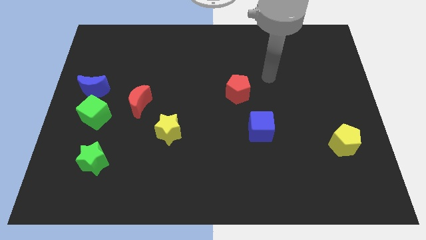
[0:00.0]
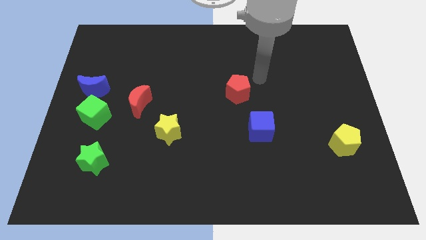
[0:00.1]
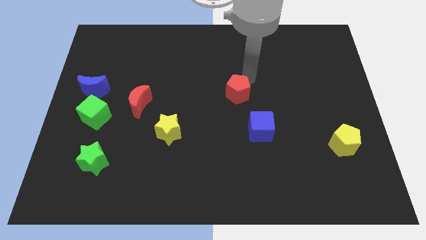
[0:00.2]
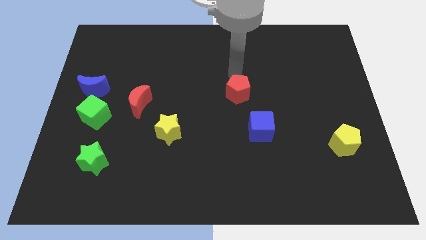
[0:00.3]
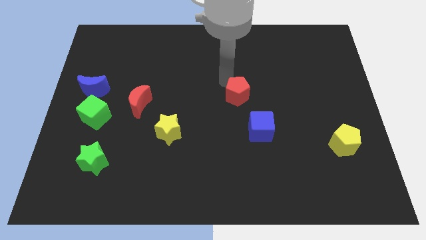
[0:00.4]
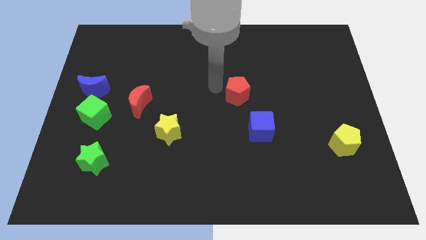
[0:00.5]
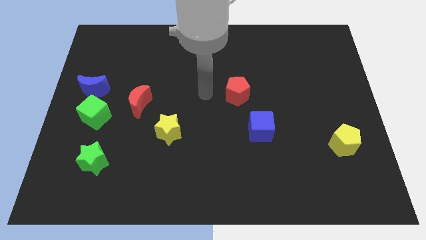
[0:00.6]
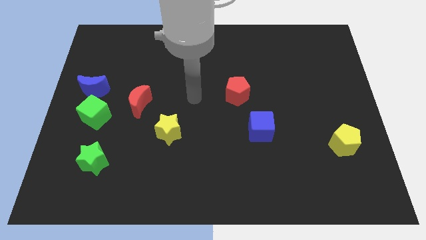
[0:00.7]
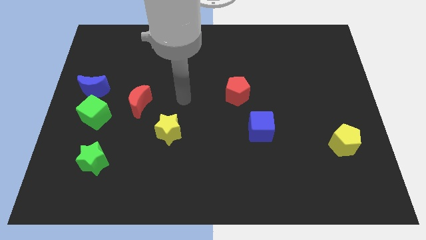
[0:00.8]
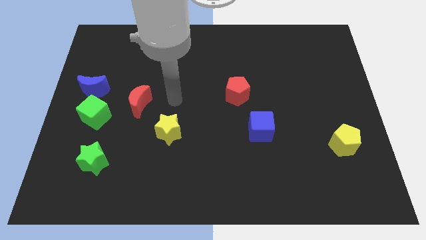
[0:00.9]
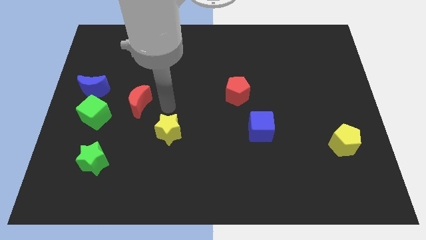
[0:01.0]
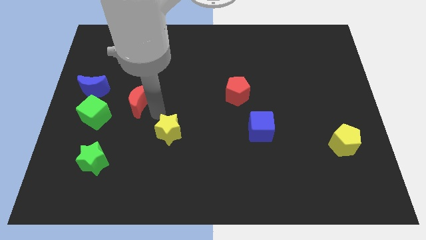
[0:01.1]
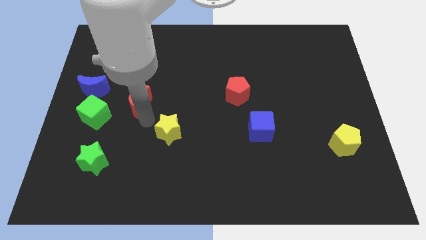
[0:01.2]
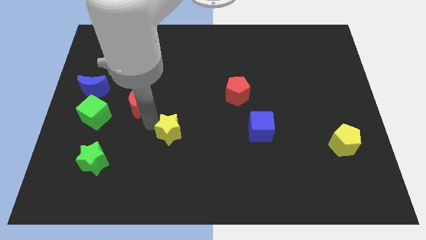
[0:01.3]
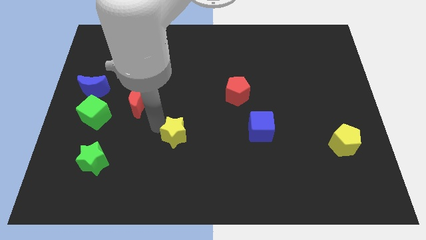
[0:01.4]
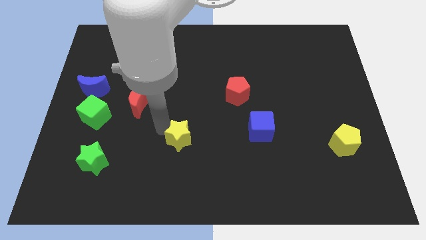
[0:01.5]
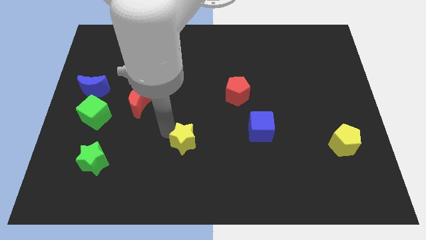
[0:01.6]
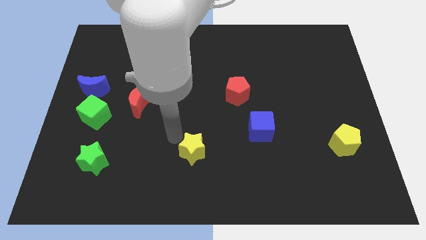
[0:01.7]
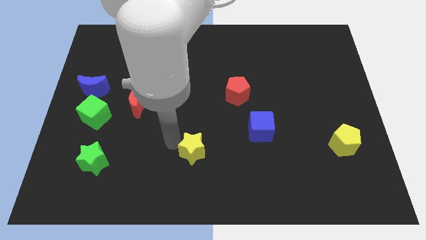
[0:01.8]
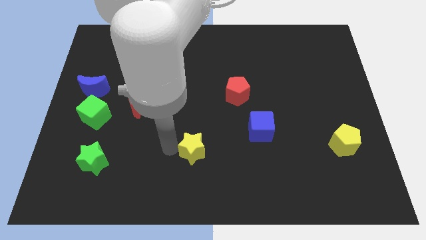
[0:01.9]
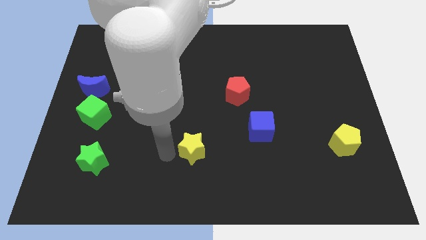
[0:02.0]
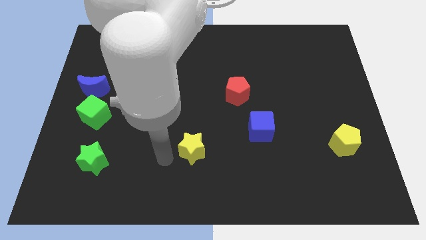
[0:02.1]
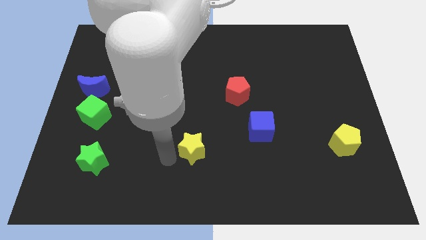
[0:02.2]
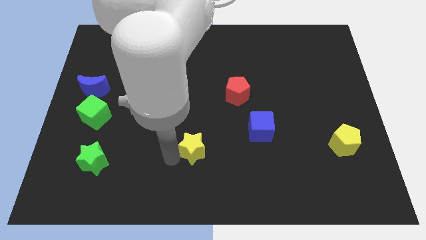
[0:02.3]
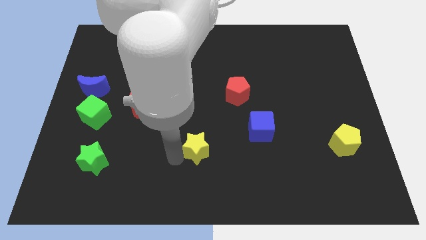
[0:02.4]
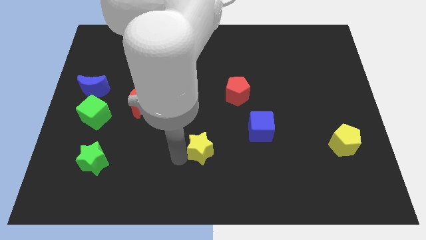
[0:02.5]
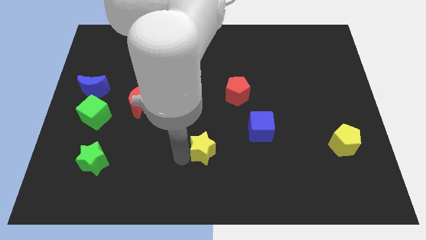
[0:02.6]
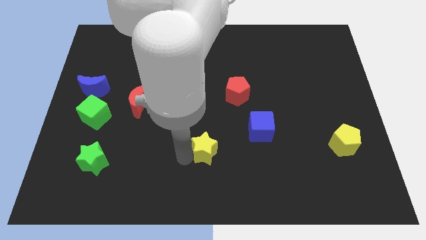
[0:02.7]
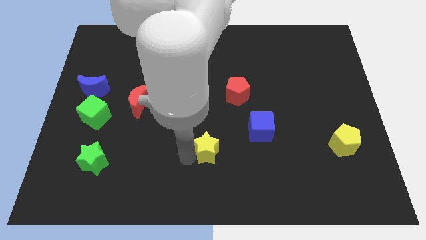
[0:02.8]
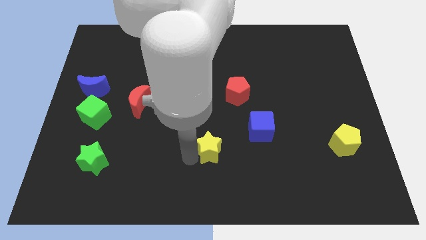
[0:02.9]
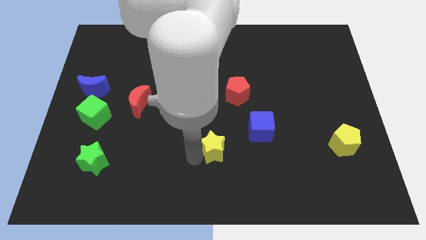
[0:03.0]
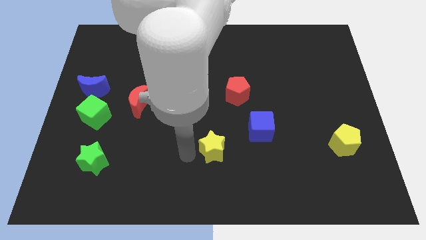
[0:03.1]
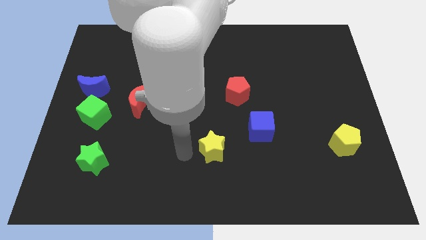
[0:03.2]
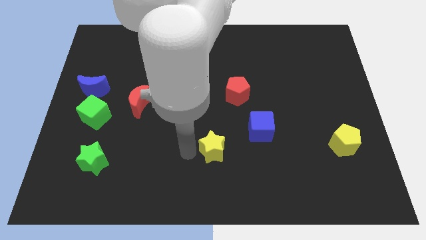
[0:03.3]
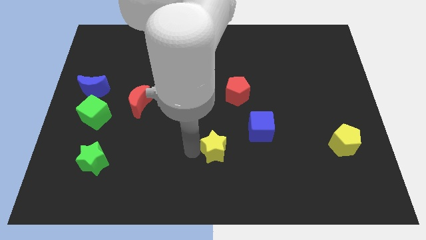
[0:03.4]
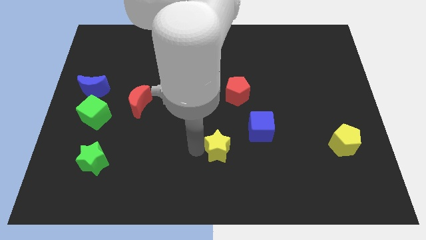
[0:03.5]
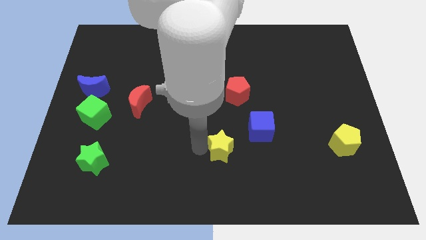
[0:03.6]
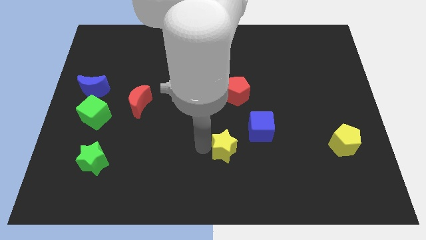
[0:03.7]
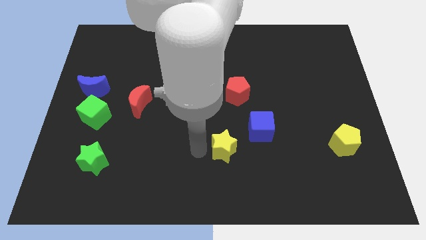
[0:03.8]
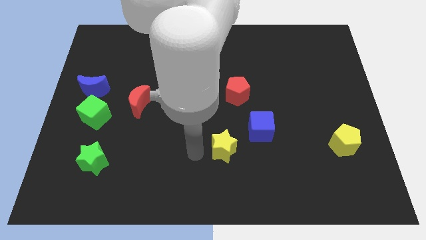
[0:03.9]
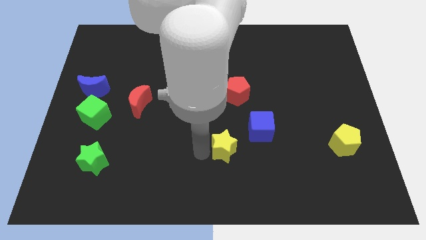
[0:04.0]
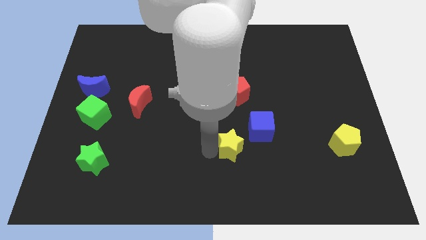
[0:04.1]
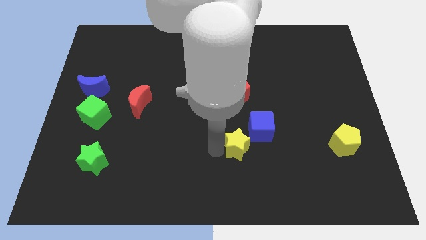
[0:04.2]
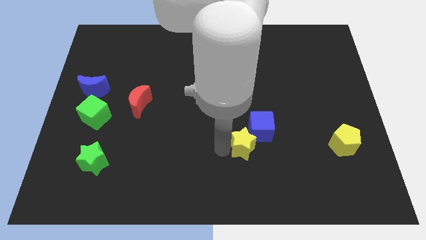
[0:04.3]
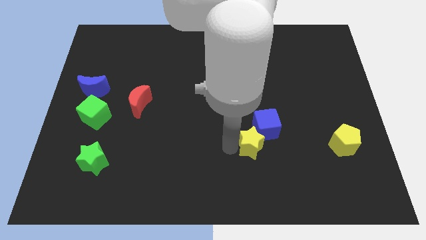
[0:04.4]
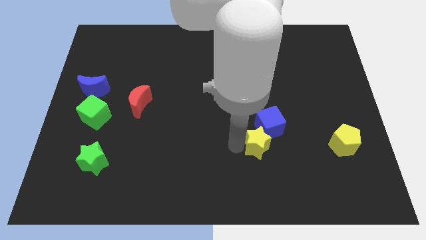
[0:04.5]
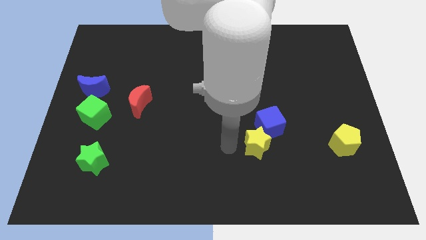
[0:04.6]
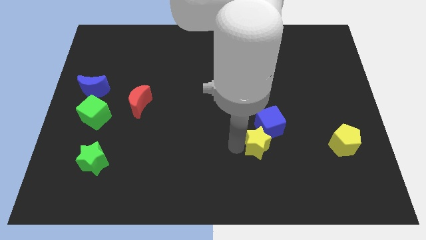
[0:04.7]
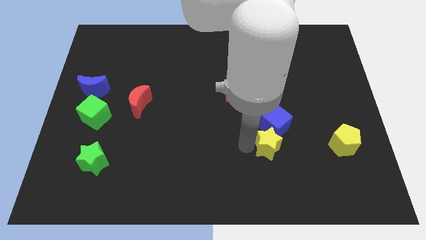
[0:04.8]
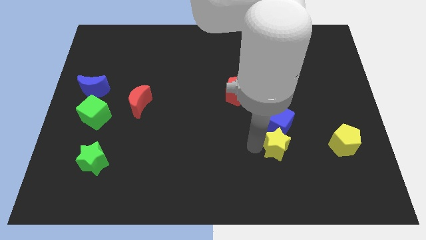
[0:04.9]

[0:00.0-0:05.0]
move the yellow star left of the yellow pentagon

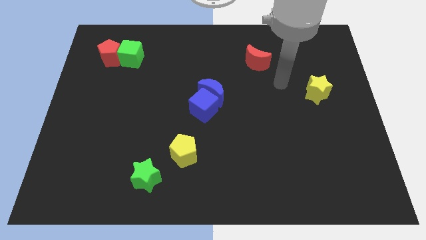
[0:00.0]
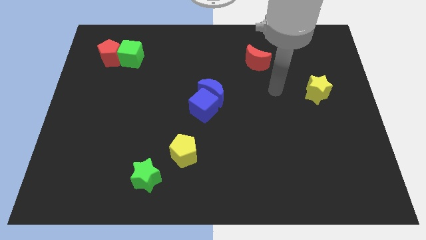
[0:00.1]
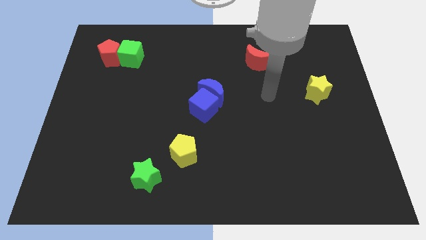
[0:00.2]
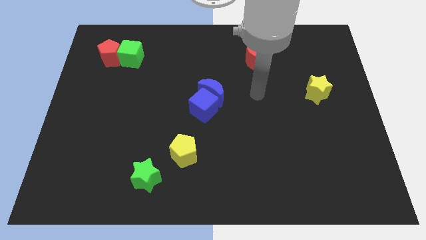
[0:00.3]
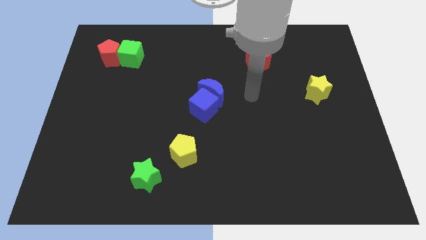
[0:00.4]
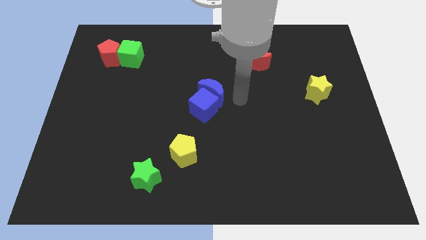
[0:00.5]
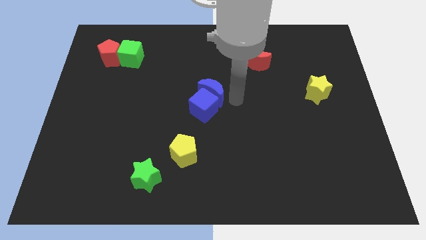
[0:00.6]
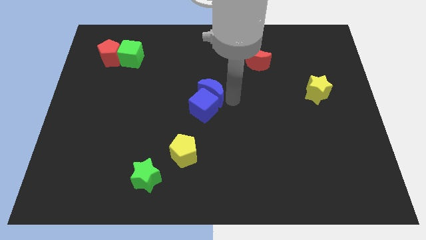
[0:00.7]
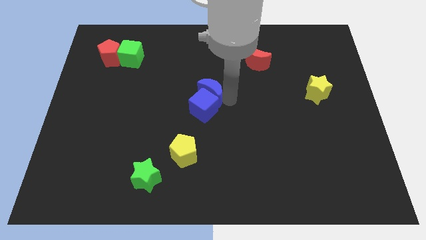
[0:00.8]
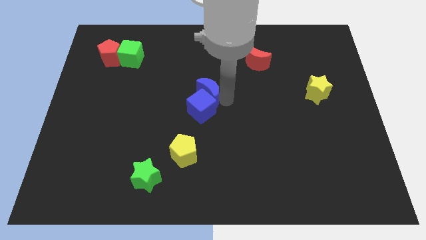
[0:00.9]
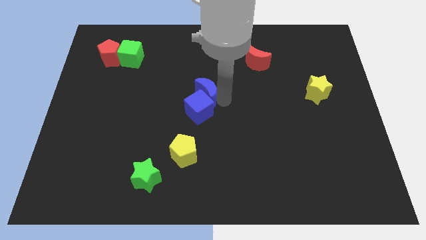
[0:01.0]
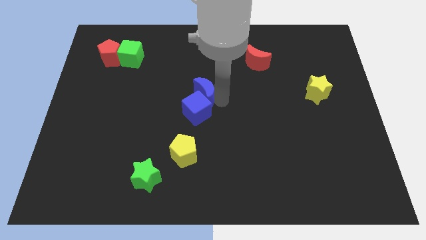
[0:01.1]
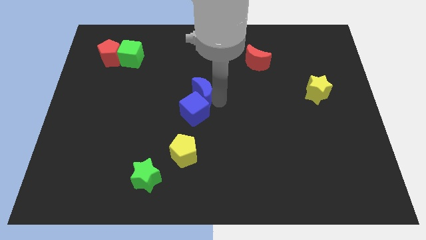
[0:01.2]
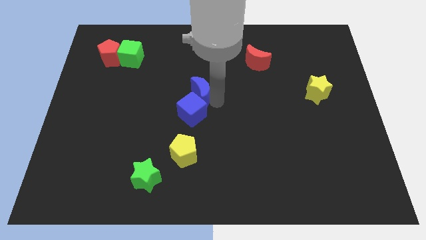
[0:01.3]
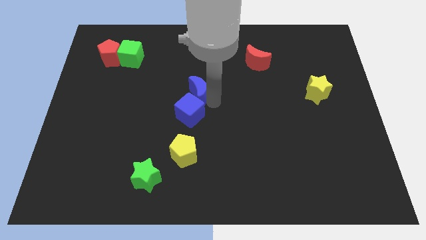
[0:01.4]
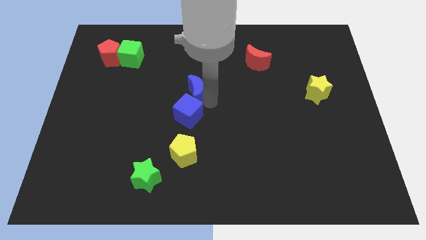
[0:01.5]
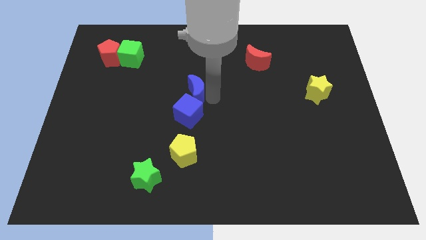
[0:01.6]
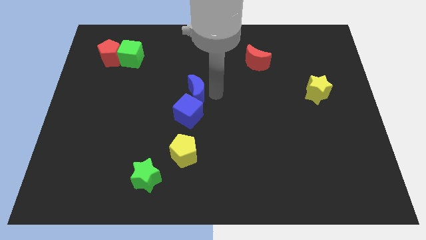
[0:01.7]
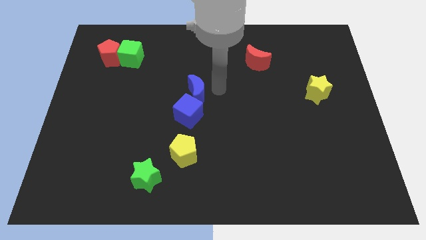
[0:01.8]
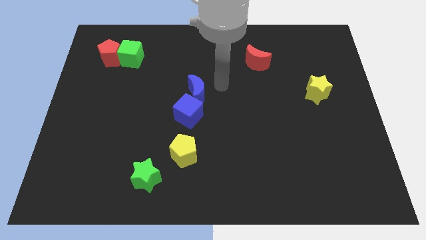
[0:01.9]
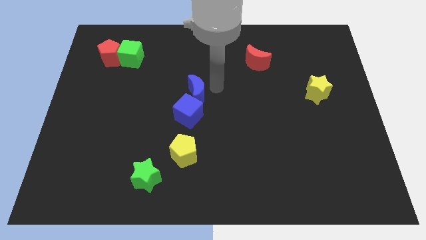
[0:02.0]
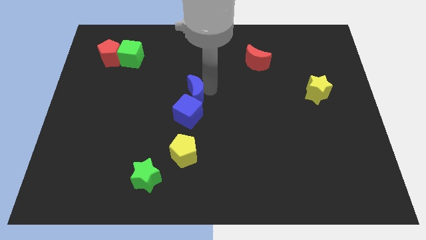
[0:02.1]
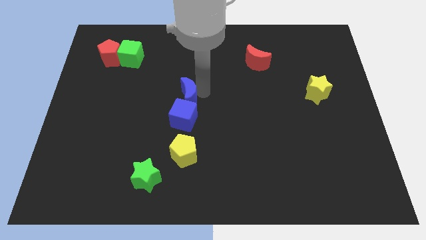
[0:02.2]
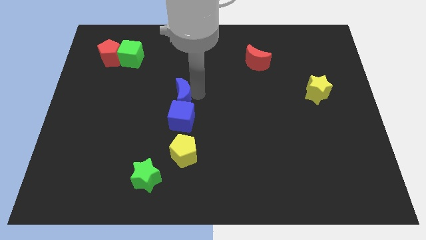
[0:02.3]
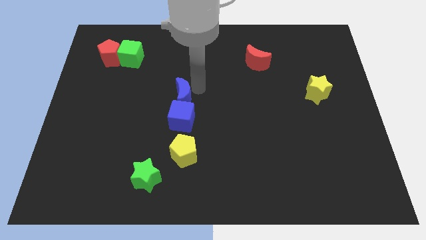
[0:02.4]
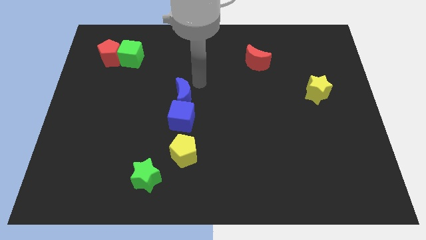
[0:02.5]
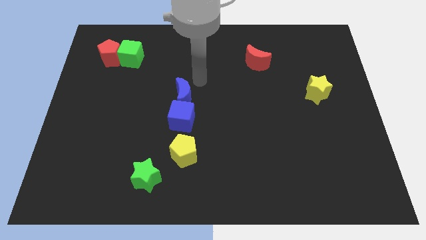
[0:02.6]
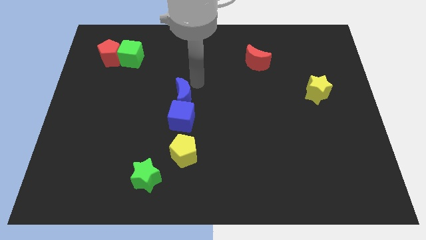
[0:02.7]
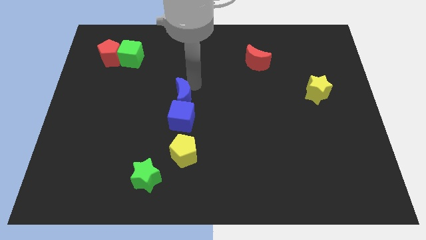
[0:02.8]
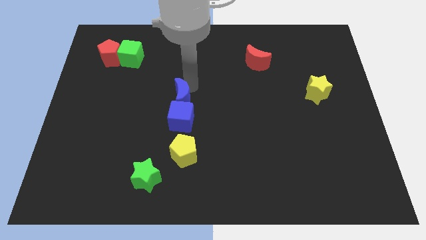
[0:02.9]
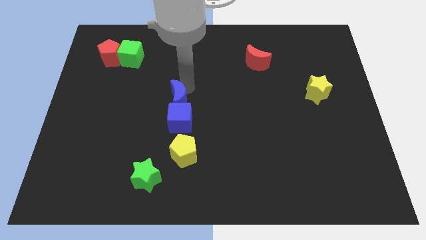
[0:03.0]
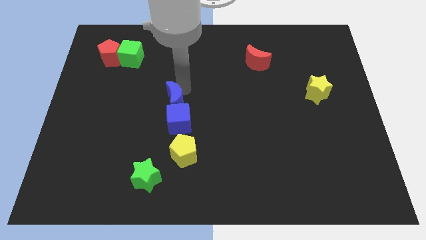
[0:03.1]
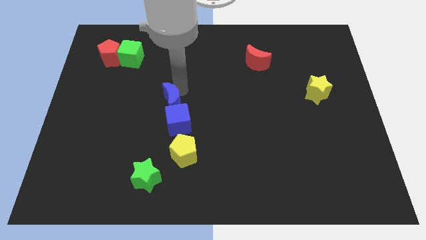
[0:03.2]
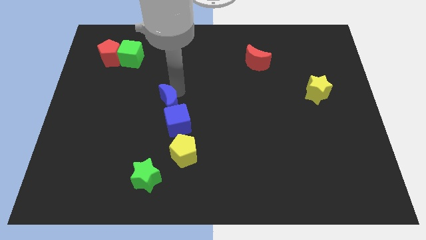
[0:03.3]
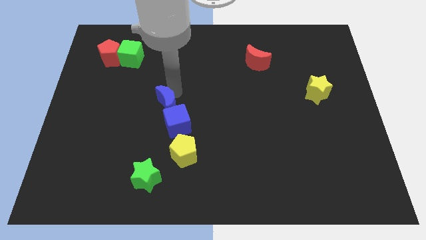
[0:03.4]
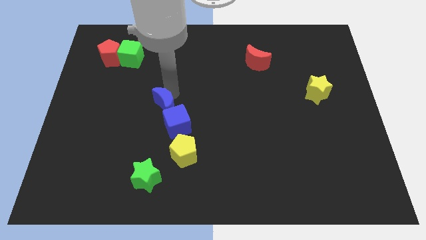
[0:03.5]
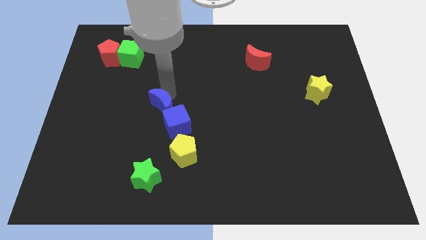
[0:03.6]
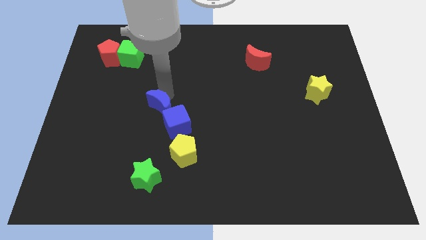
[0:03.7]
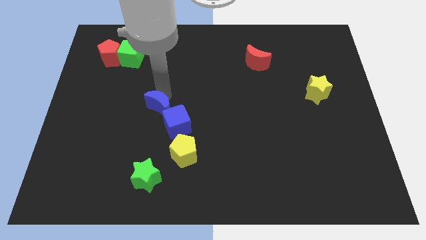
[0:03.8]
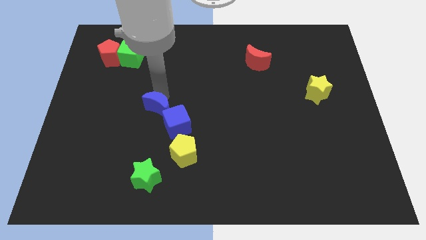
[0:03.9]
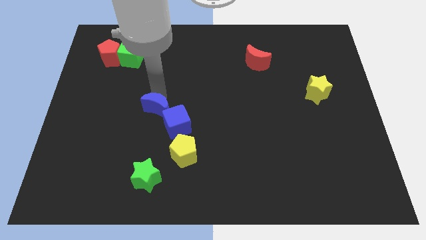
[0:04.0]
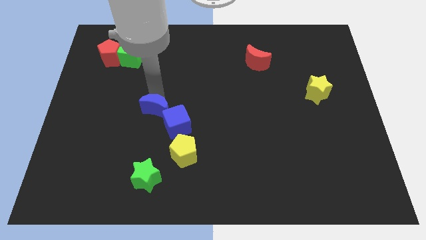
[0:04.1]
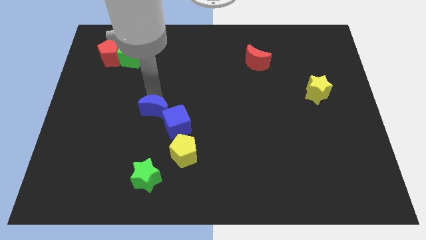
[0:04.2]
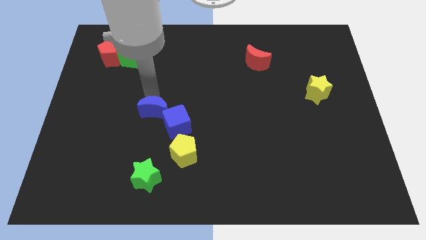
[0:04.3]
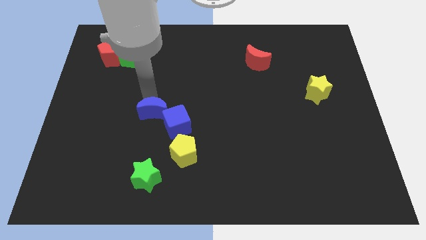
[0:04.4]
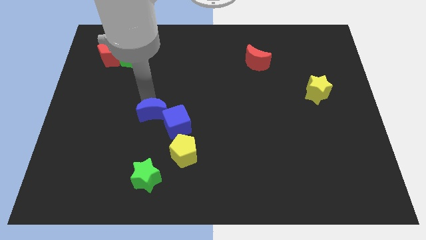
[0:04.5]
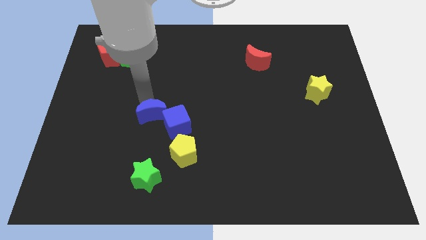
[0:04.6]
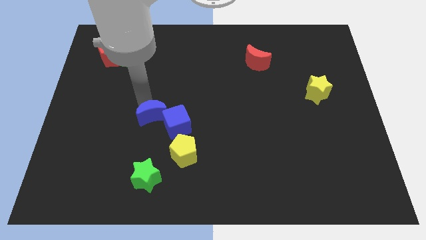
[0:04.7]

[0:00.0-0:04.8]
push the blue moon above the green star
